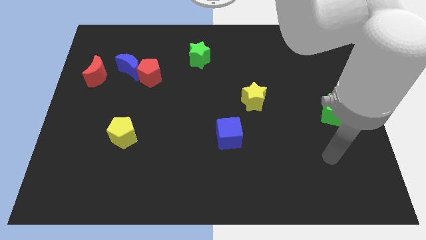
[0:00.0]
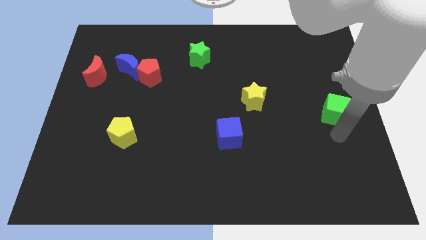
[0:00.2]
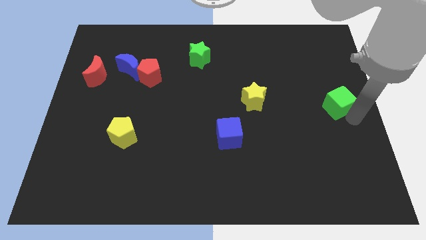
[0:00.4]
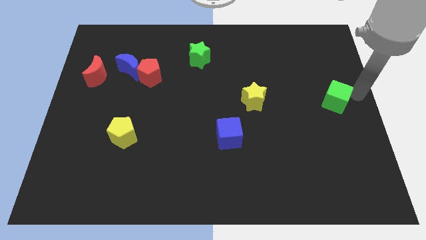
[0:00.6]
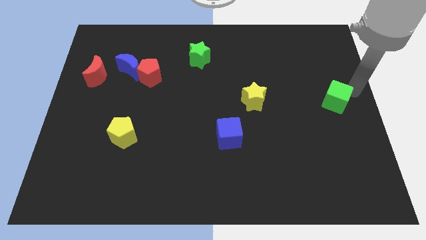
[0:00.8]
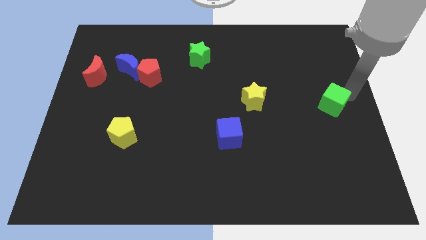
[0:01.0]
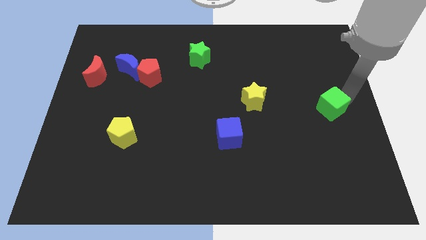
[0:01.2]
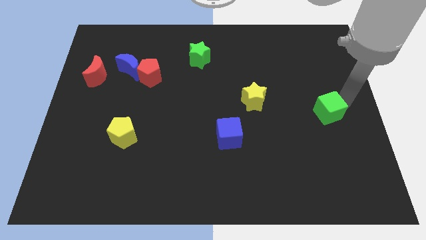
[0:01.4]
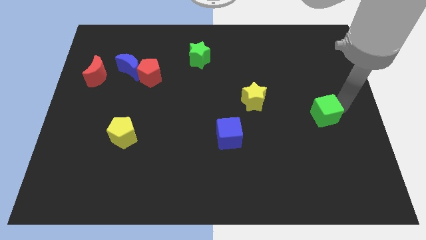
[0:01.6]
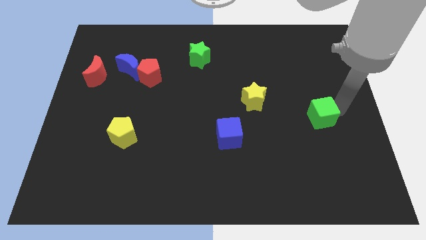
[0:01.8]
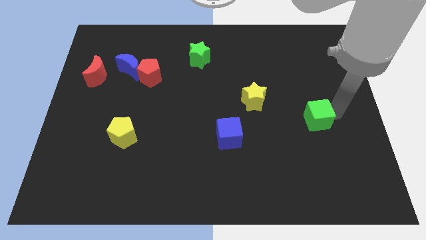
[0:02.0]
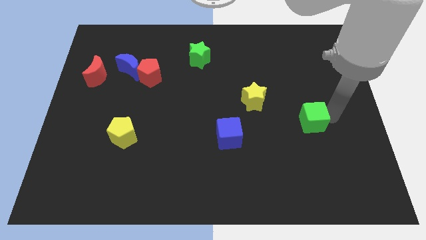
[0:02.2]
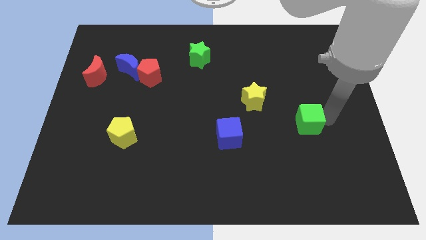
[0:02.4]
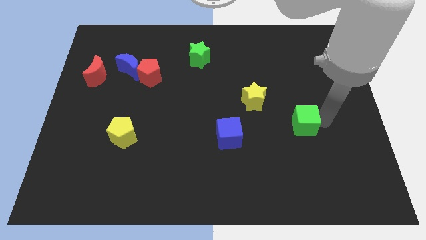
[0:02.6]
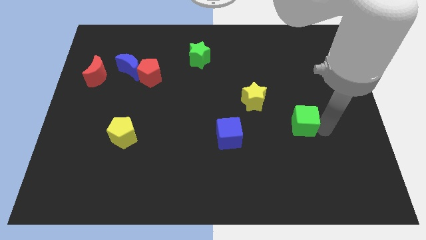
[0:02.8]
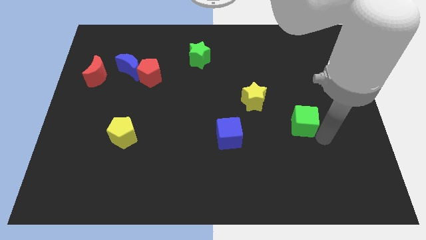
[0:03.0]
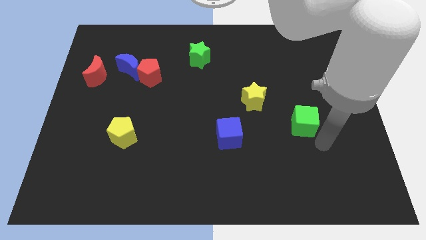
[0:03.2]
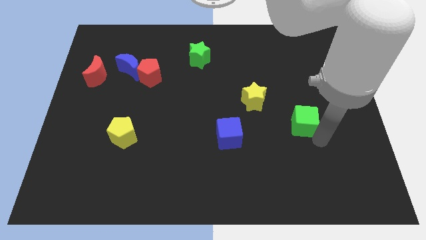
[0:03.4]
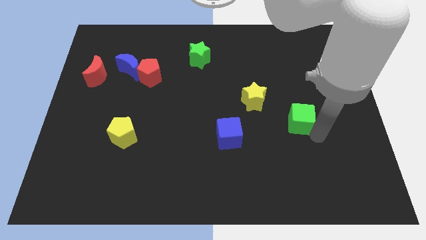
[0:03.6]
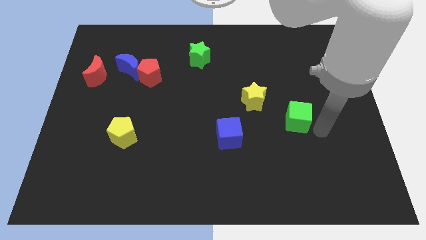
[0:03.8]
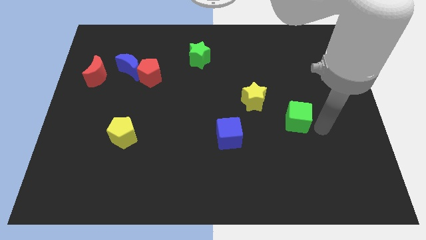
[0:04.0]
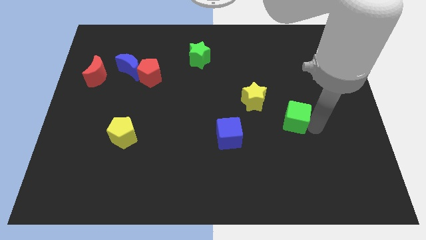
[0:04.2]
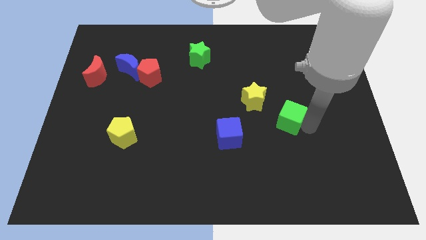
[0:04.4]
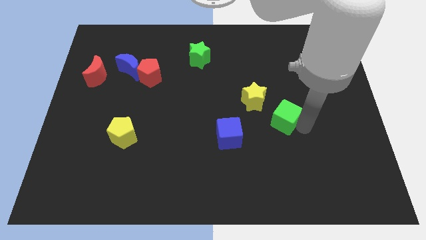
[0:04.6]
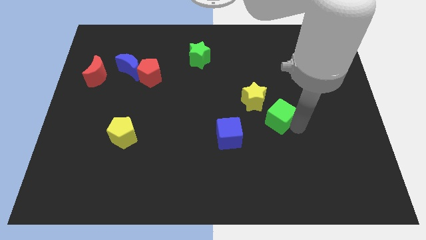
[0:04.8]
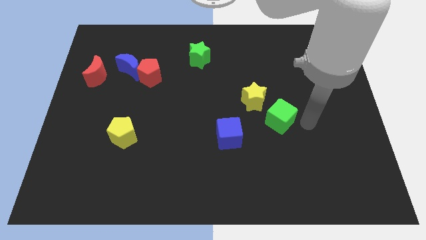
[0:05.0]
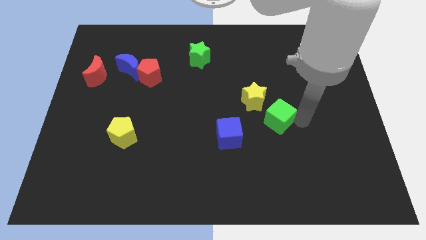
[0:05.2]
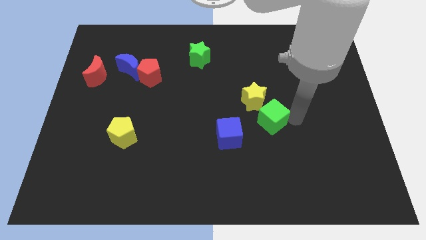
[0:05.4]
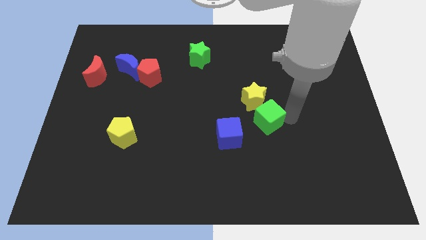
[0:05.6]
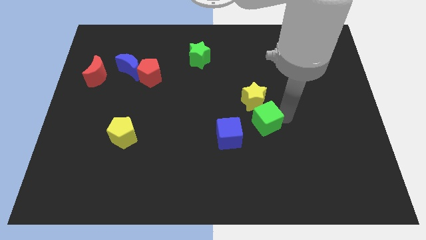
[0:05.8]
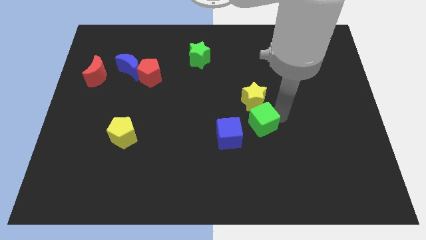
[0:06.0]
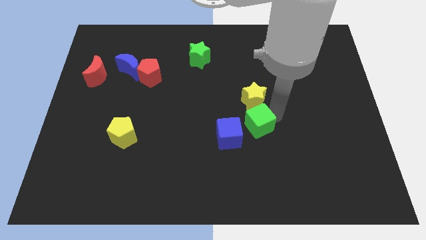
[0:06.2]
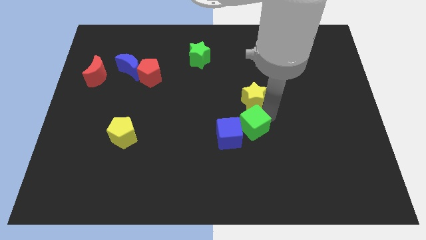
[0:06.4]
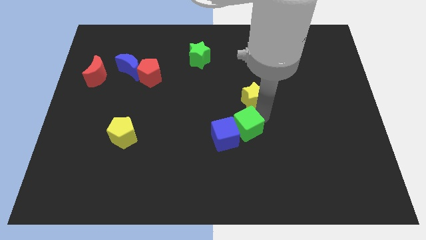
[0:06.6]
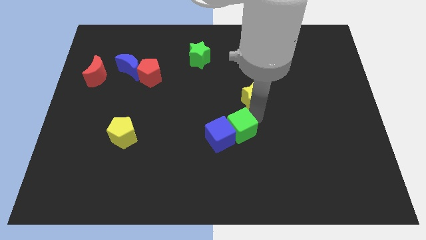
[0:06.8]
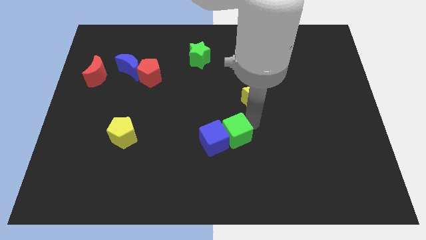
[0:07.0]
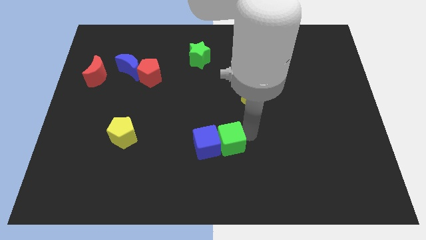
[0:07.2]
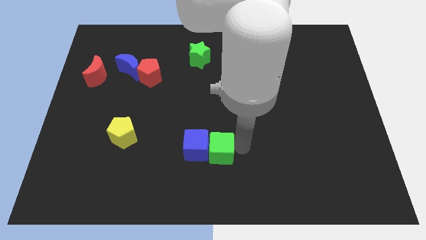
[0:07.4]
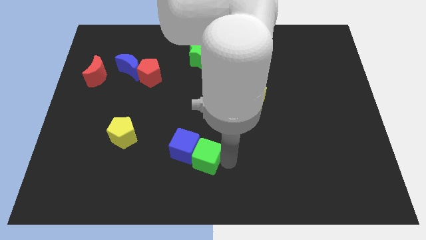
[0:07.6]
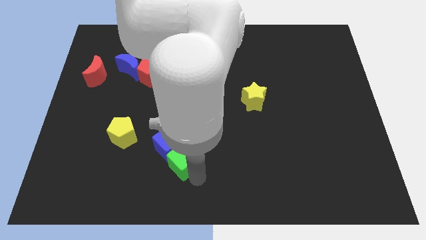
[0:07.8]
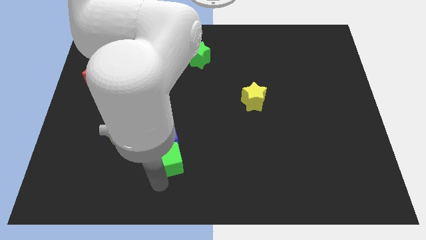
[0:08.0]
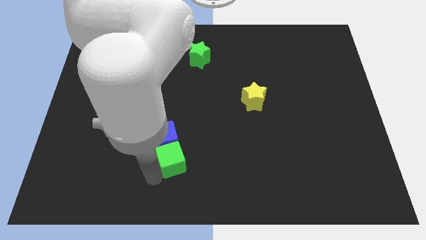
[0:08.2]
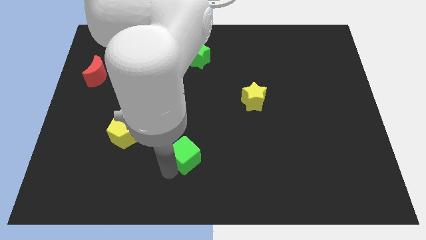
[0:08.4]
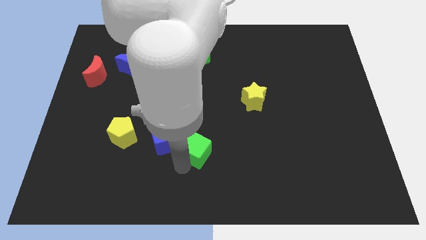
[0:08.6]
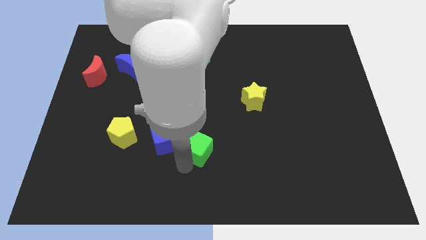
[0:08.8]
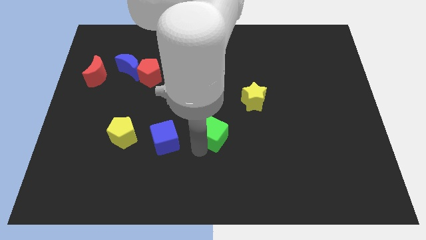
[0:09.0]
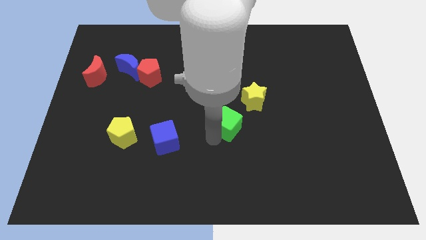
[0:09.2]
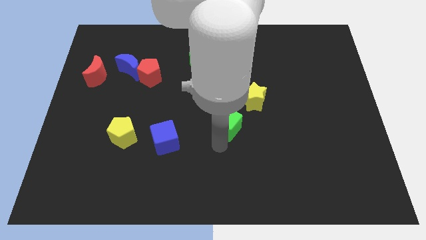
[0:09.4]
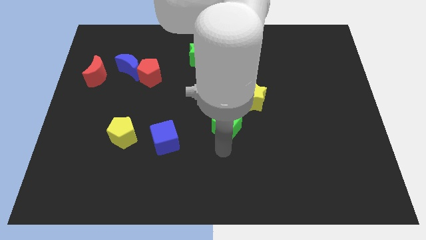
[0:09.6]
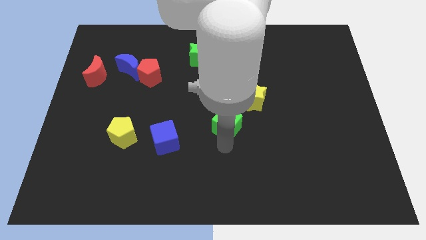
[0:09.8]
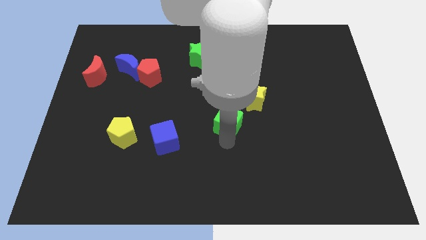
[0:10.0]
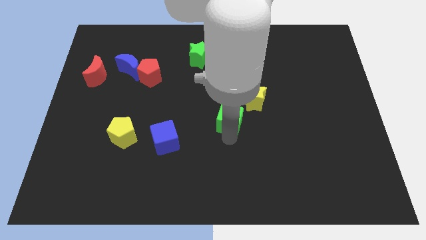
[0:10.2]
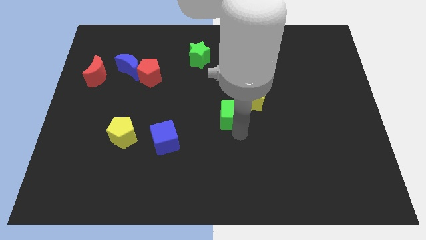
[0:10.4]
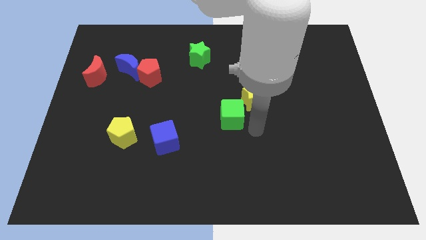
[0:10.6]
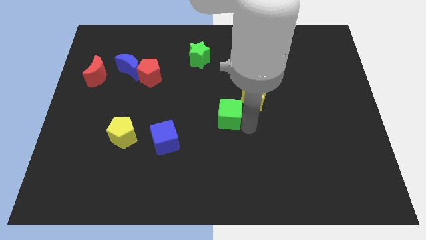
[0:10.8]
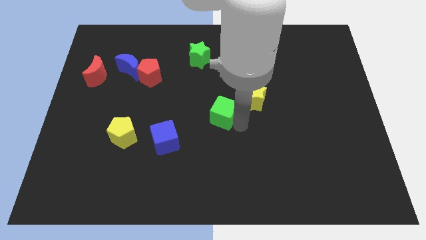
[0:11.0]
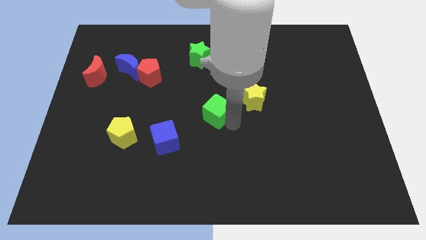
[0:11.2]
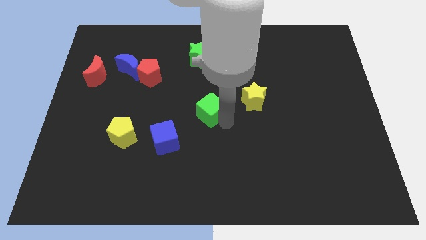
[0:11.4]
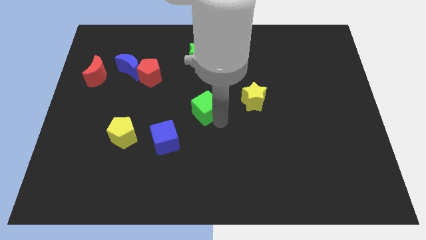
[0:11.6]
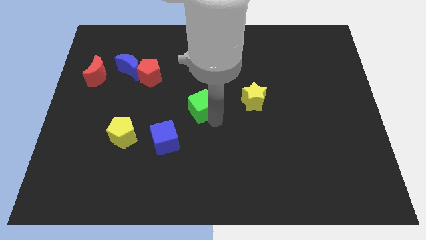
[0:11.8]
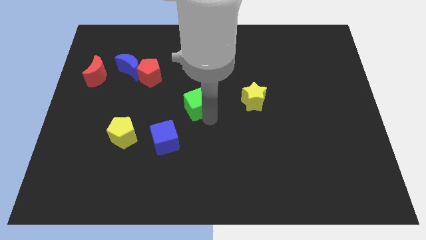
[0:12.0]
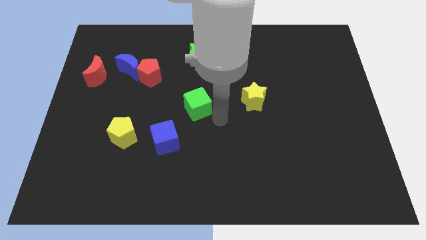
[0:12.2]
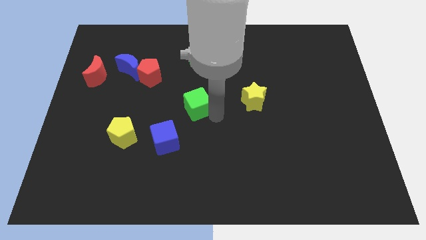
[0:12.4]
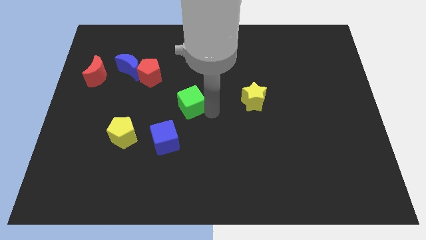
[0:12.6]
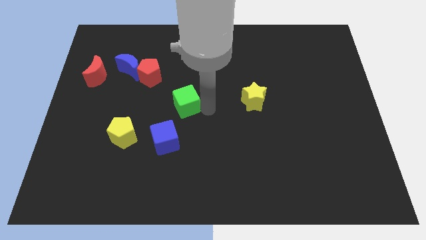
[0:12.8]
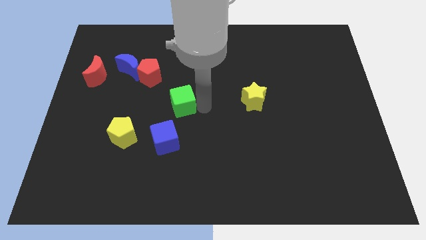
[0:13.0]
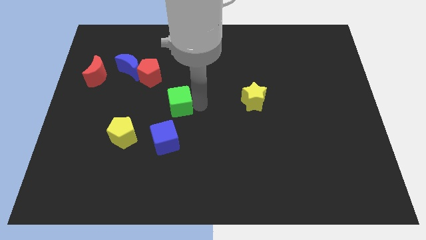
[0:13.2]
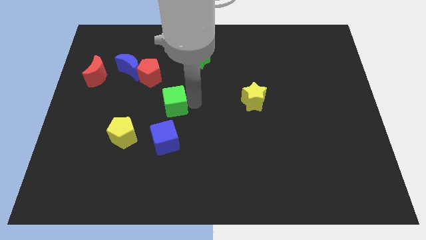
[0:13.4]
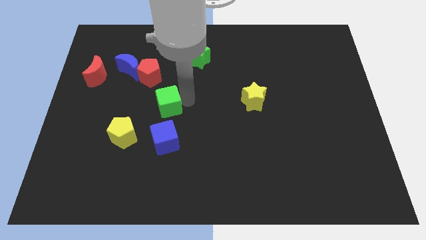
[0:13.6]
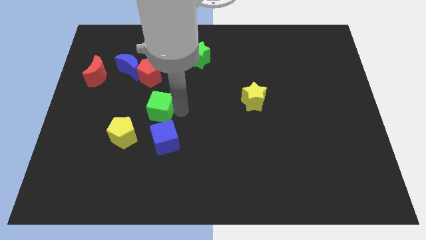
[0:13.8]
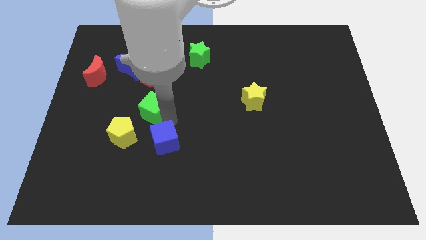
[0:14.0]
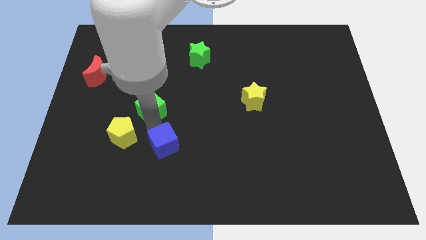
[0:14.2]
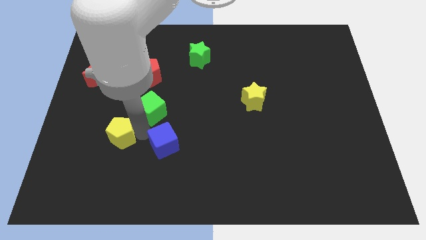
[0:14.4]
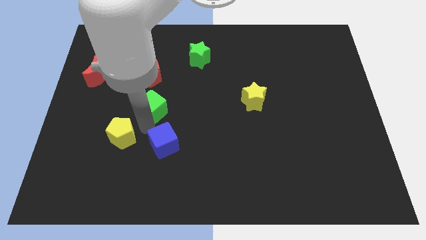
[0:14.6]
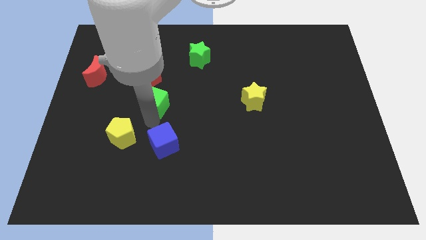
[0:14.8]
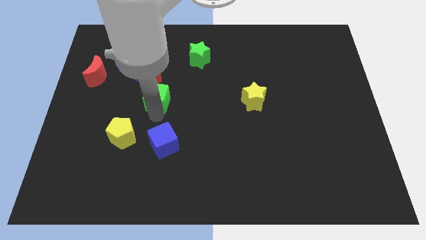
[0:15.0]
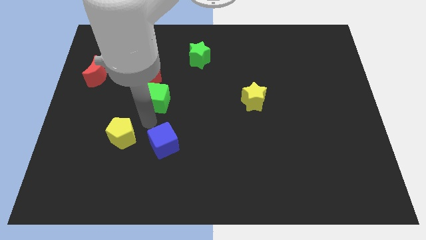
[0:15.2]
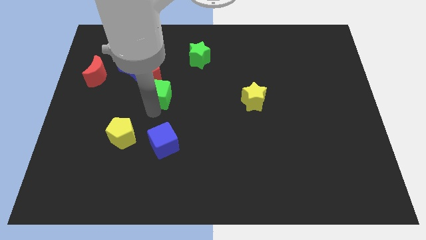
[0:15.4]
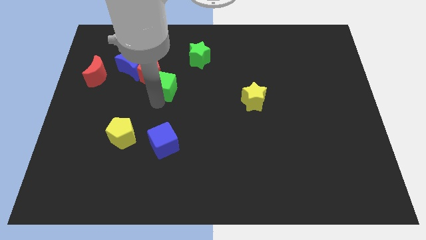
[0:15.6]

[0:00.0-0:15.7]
move the green cube close to the red pentagon
